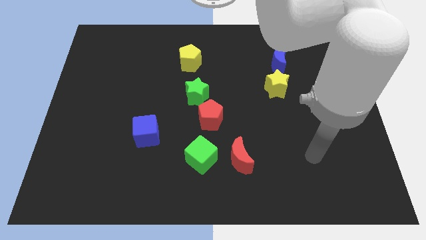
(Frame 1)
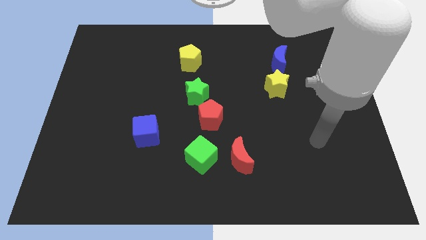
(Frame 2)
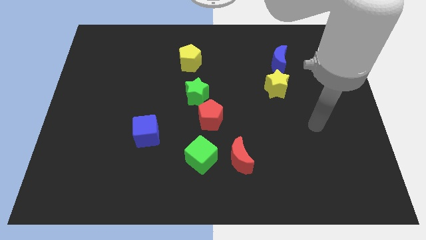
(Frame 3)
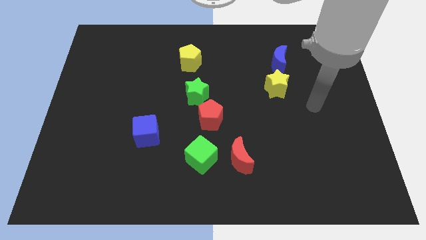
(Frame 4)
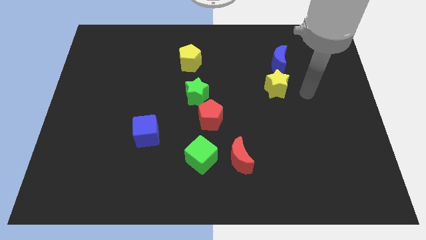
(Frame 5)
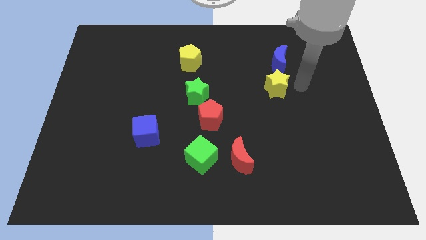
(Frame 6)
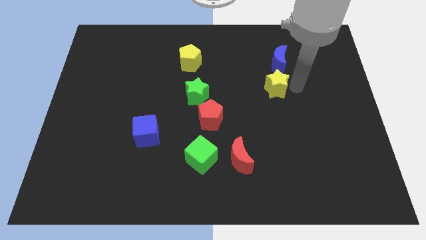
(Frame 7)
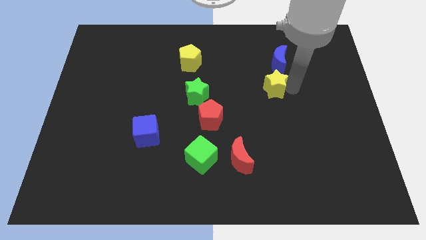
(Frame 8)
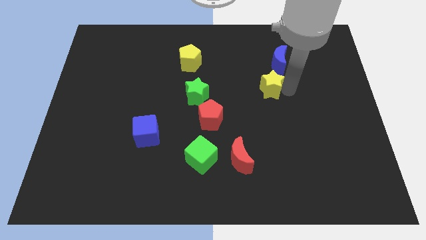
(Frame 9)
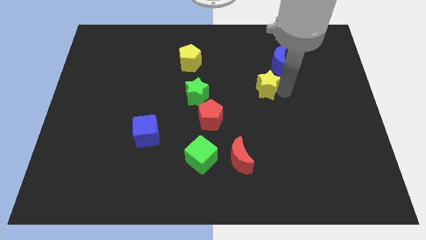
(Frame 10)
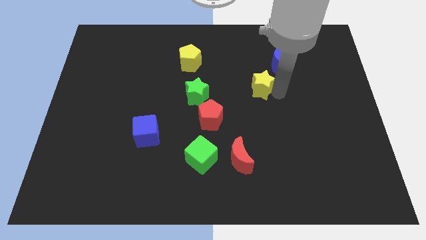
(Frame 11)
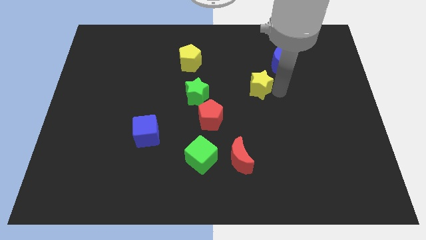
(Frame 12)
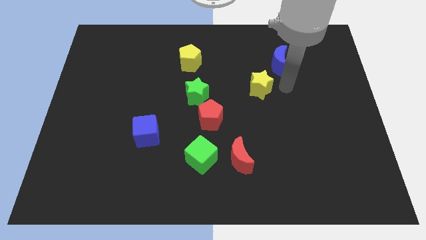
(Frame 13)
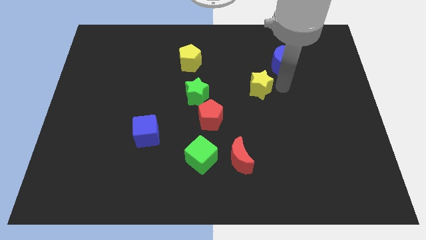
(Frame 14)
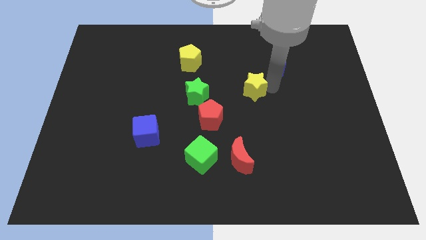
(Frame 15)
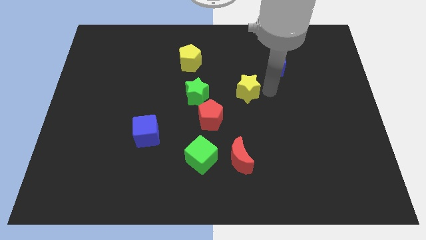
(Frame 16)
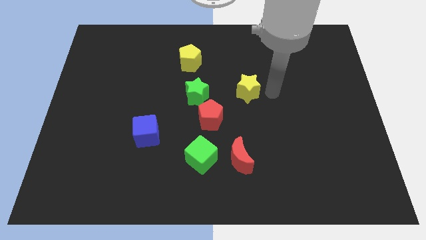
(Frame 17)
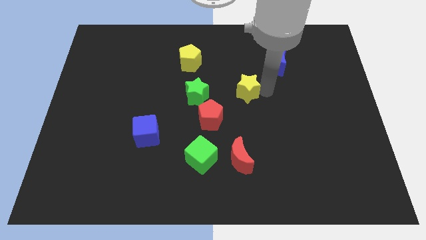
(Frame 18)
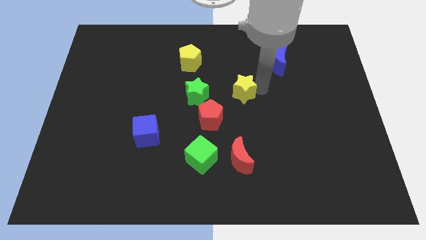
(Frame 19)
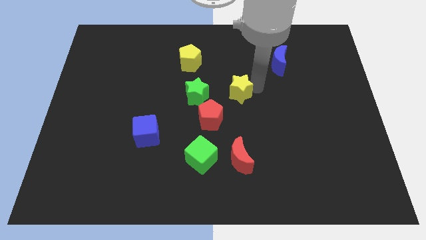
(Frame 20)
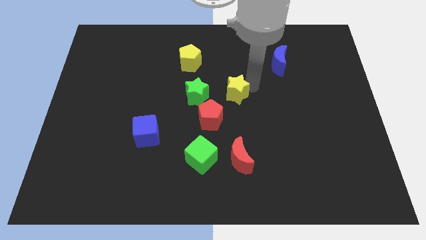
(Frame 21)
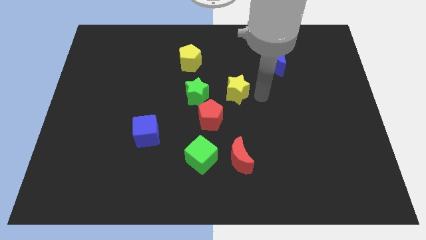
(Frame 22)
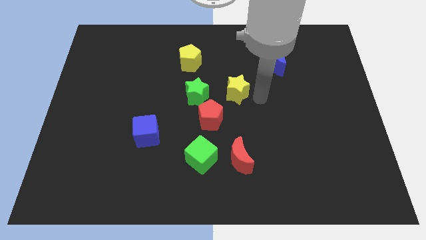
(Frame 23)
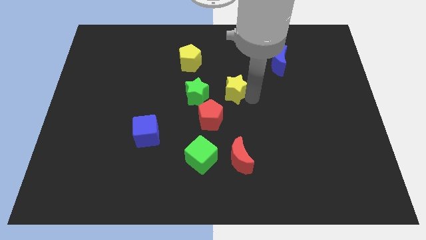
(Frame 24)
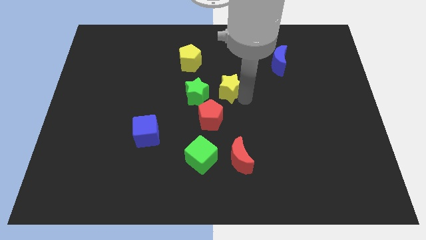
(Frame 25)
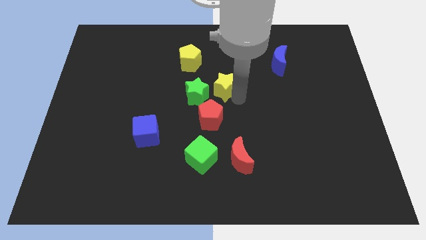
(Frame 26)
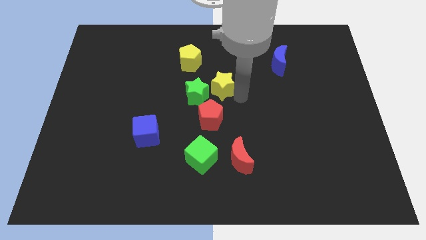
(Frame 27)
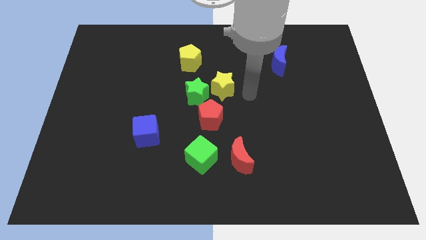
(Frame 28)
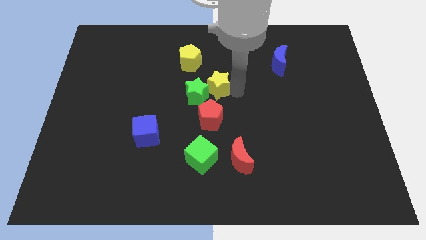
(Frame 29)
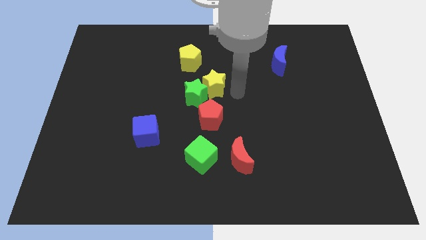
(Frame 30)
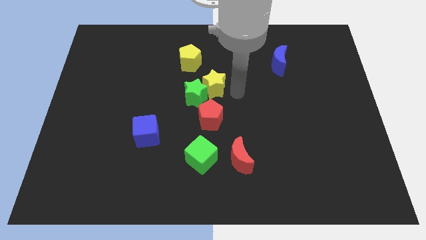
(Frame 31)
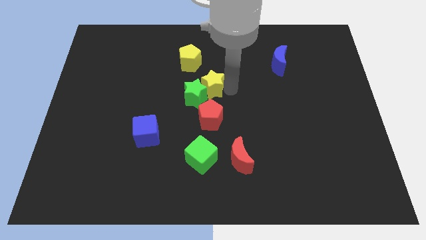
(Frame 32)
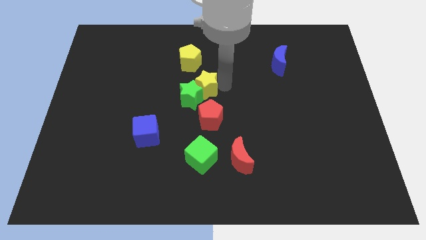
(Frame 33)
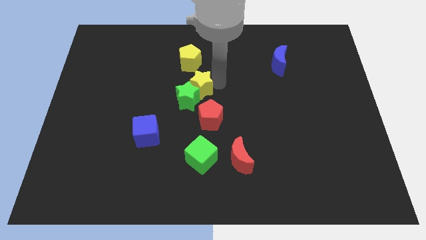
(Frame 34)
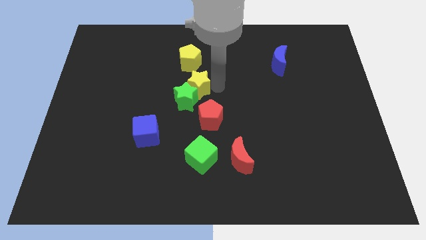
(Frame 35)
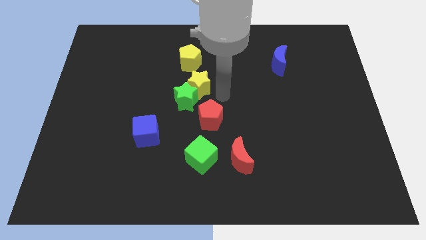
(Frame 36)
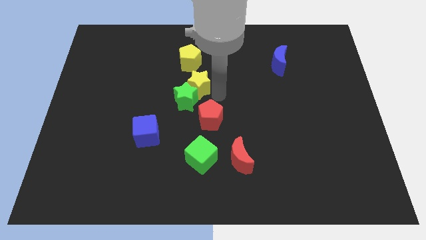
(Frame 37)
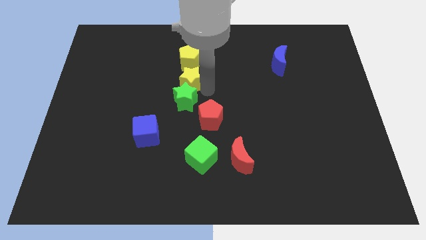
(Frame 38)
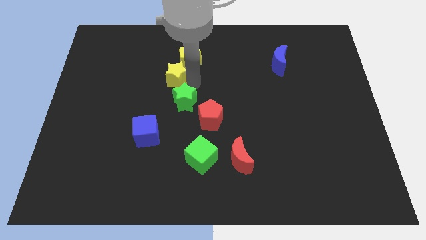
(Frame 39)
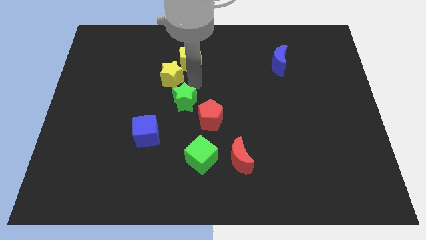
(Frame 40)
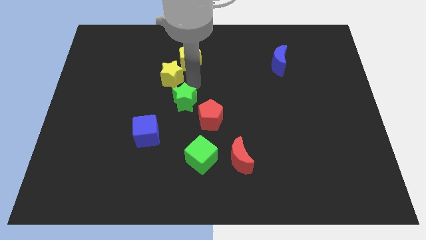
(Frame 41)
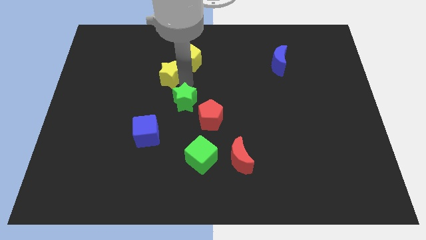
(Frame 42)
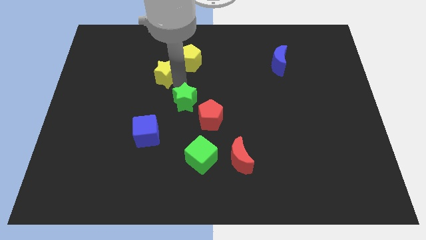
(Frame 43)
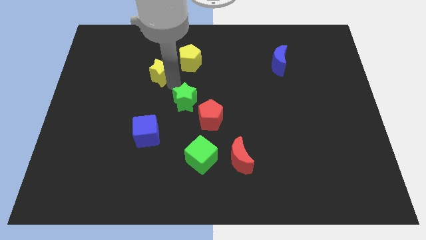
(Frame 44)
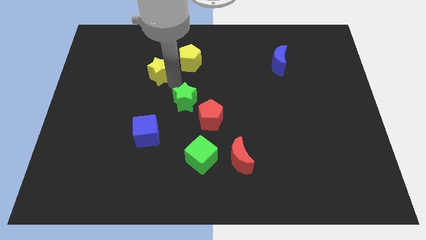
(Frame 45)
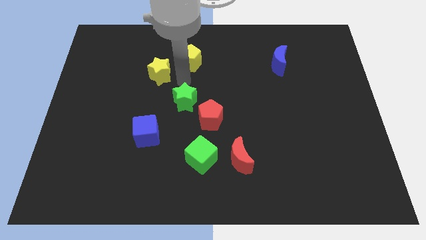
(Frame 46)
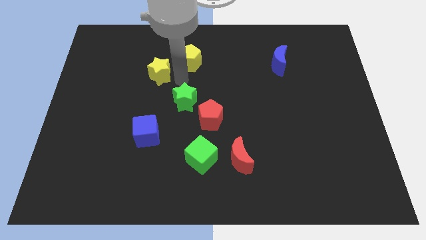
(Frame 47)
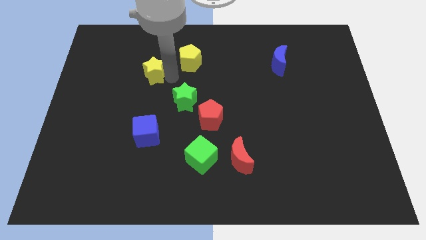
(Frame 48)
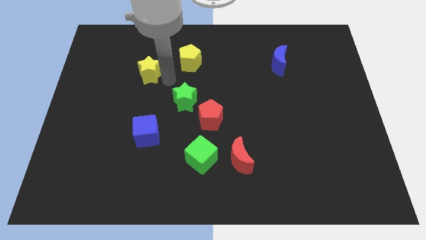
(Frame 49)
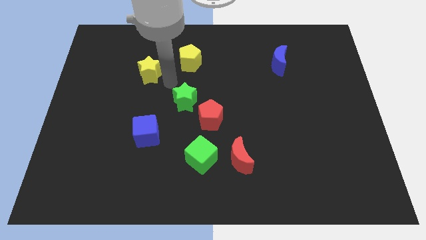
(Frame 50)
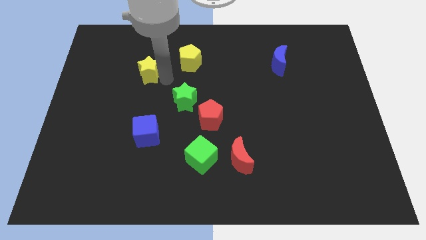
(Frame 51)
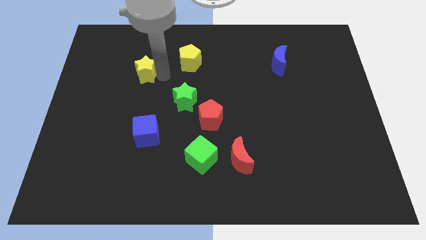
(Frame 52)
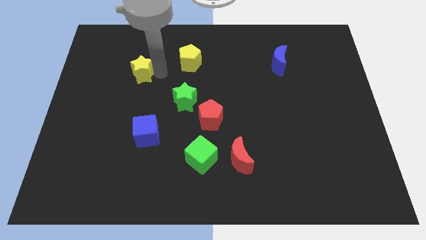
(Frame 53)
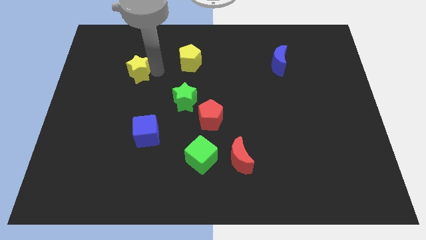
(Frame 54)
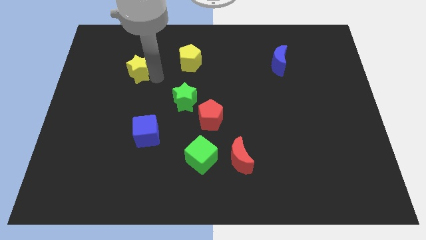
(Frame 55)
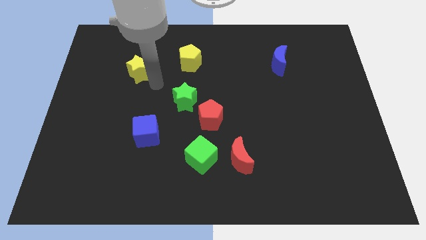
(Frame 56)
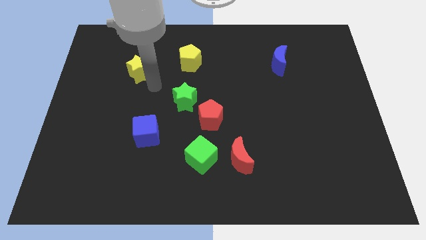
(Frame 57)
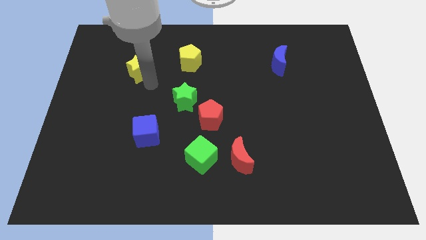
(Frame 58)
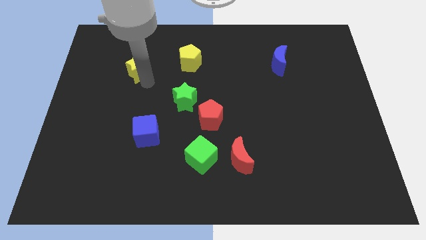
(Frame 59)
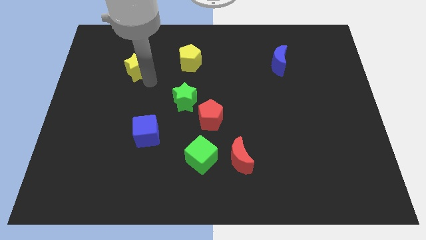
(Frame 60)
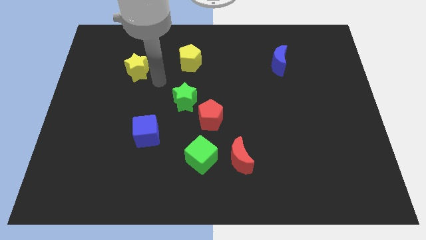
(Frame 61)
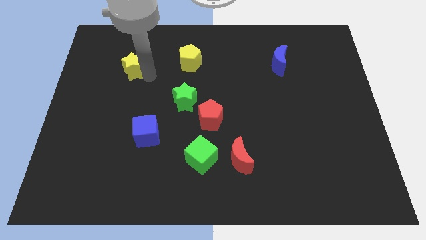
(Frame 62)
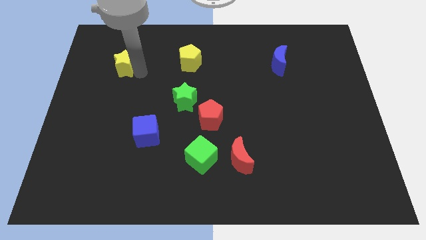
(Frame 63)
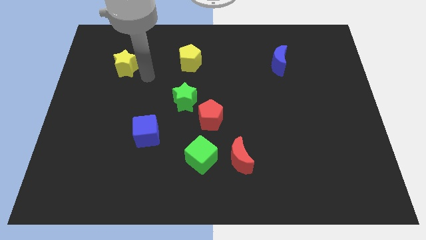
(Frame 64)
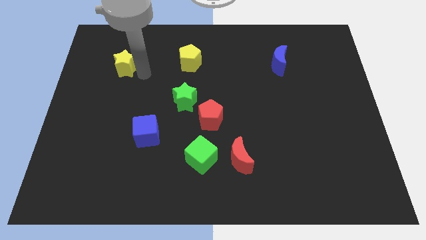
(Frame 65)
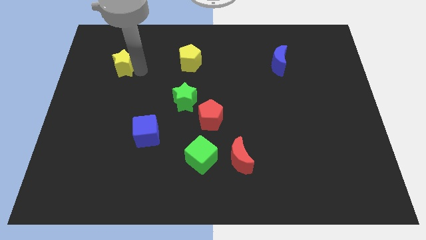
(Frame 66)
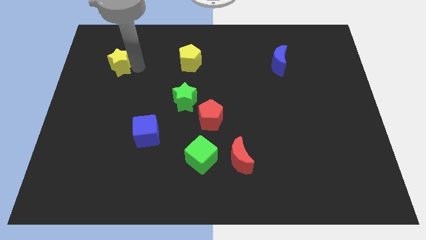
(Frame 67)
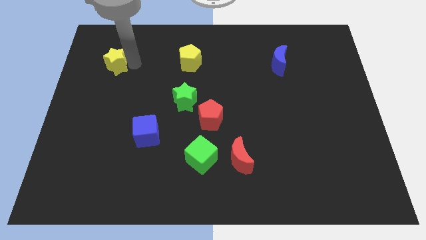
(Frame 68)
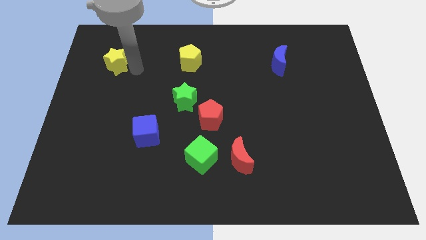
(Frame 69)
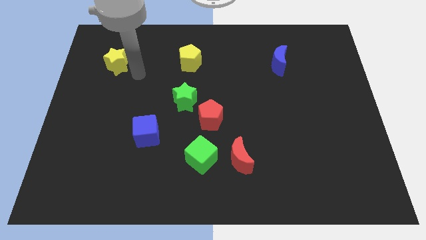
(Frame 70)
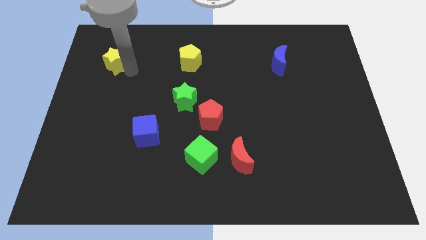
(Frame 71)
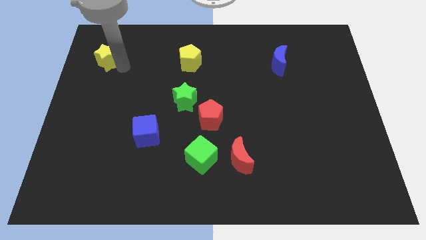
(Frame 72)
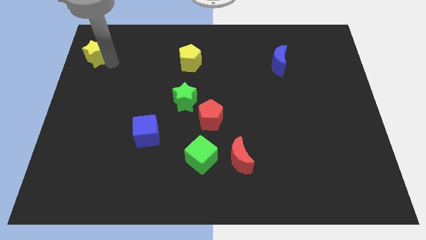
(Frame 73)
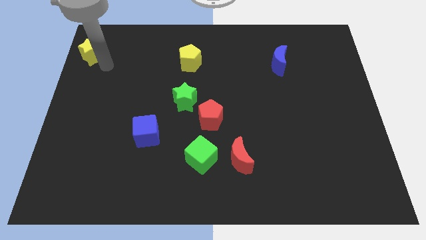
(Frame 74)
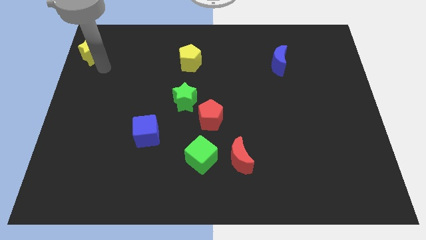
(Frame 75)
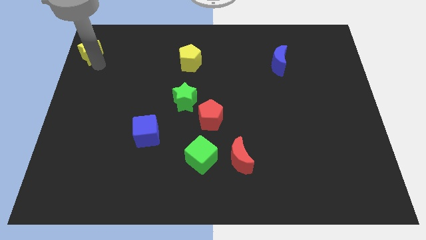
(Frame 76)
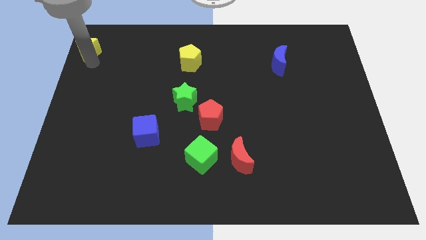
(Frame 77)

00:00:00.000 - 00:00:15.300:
put the yellow star to the top left
